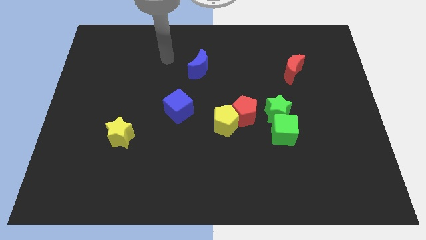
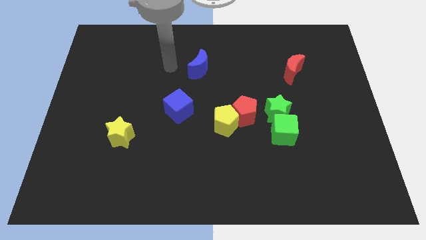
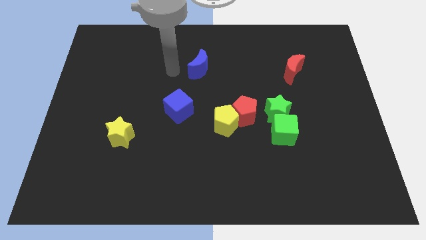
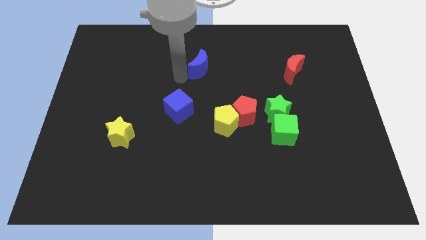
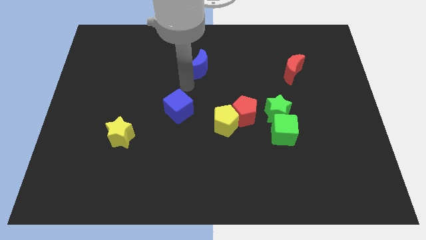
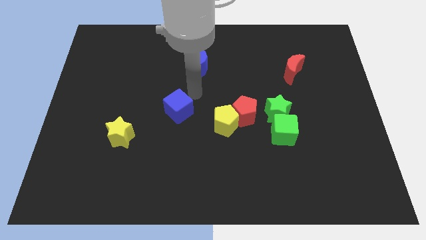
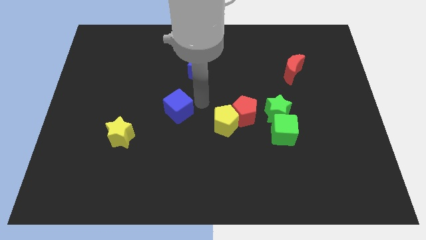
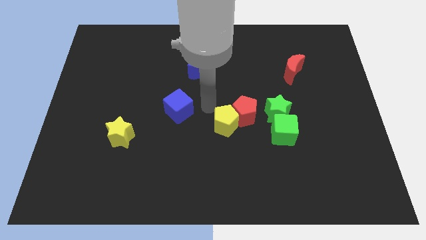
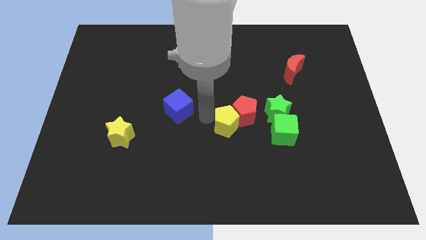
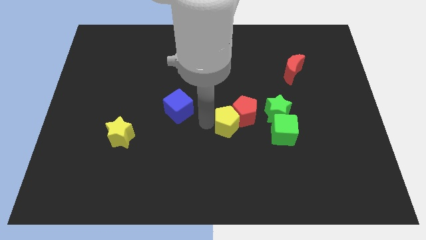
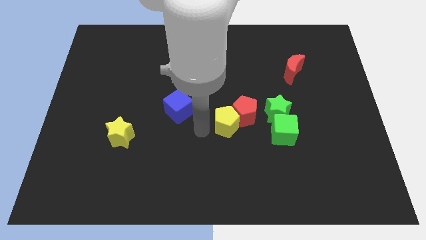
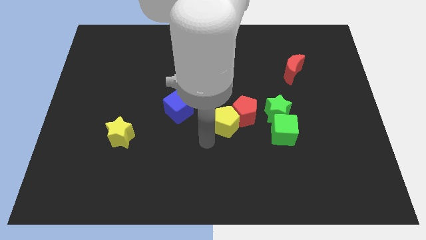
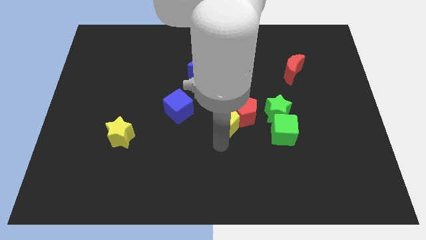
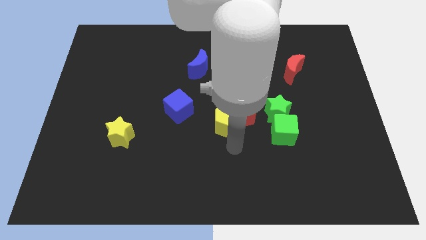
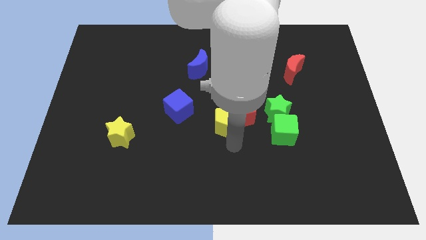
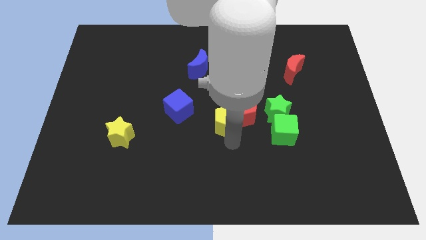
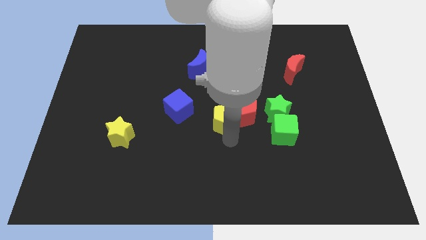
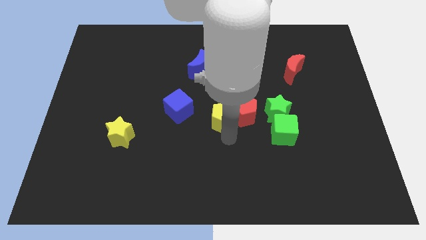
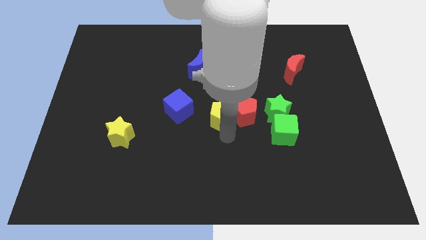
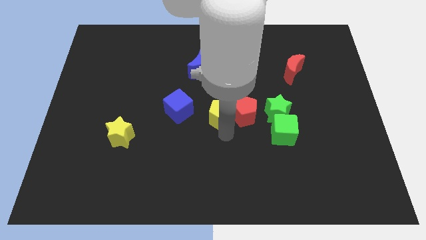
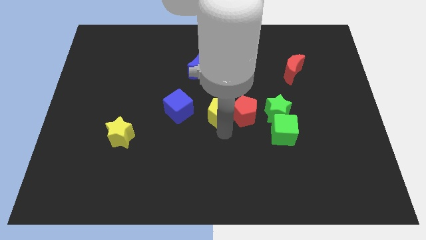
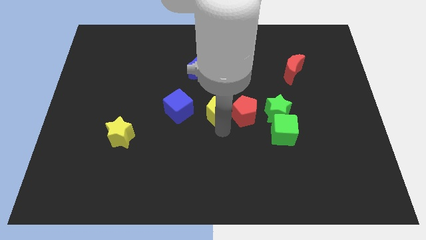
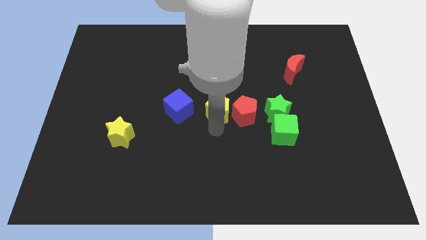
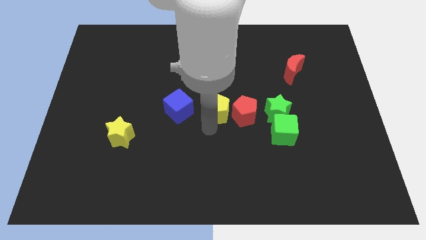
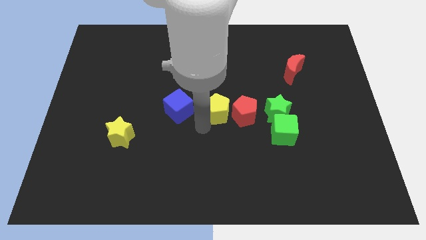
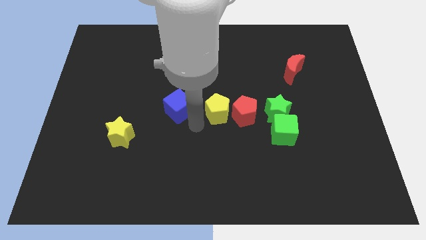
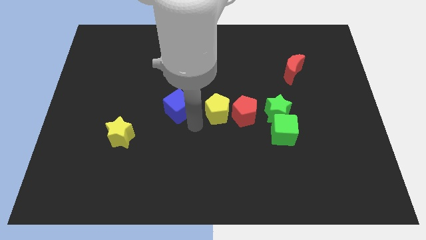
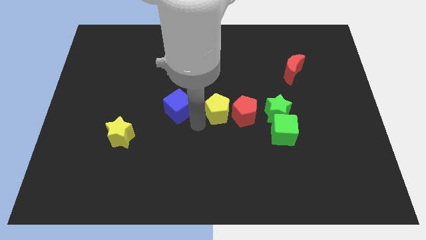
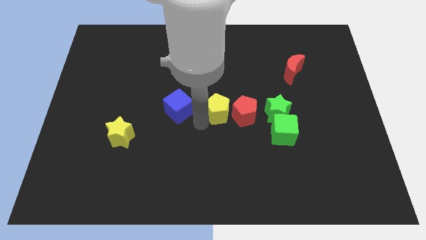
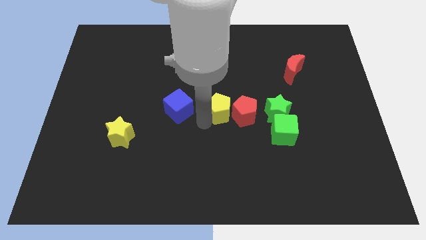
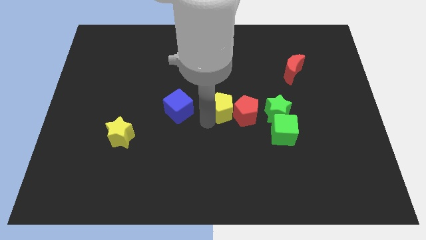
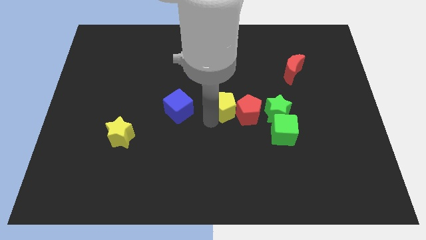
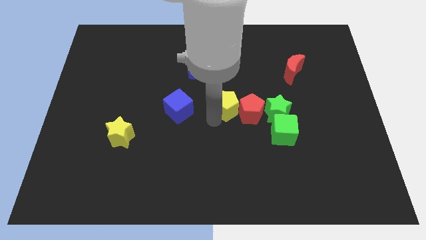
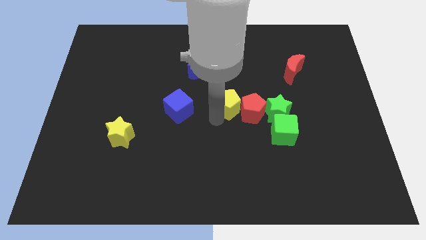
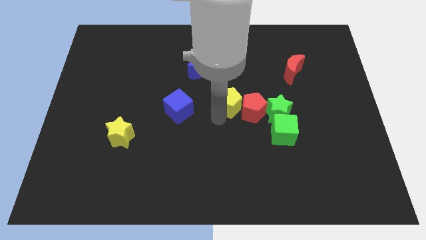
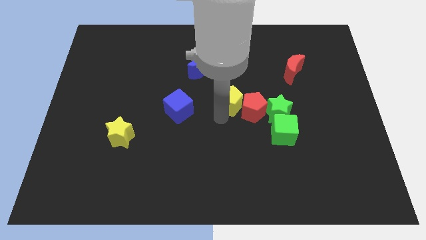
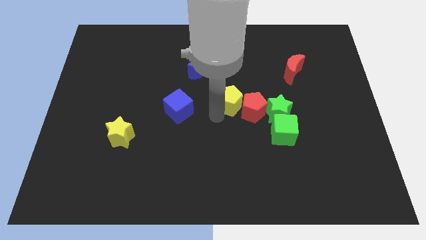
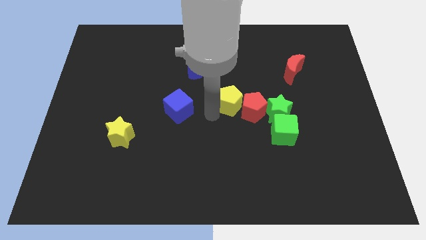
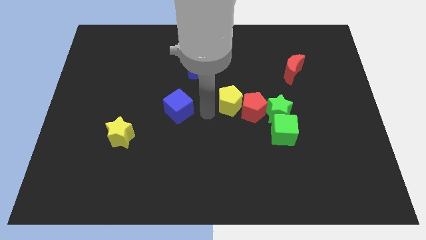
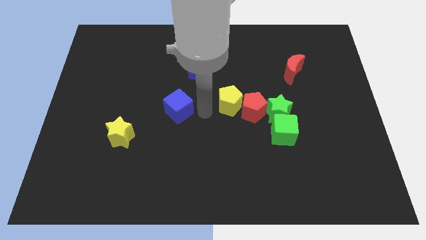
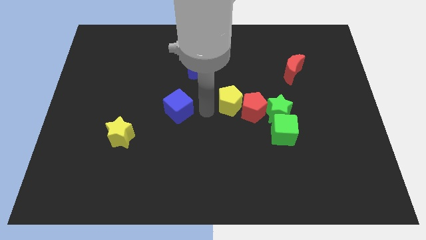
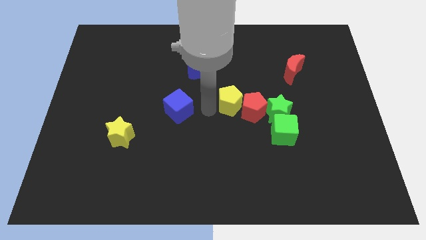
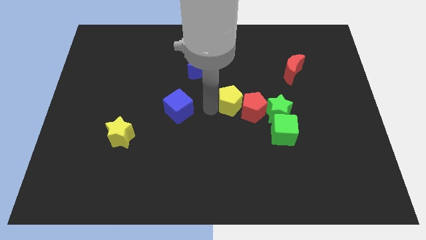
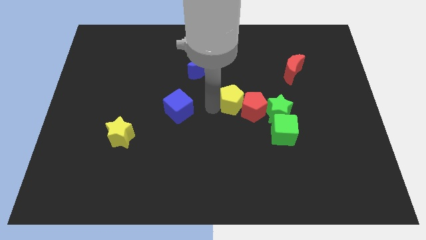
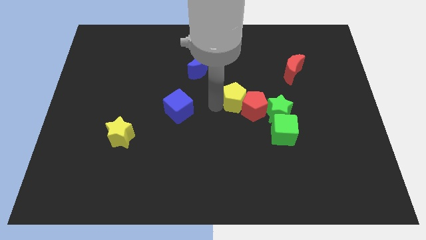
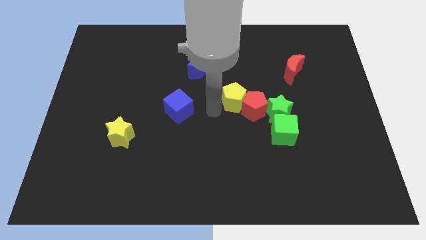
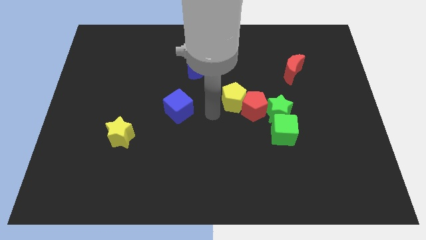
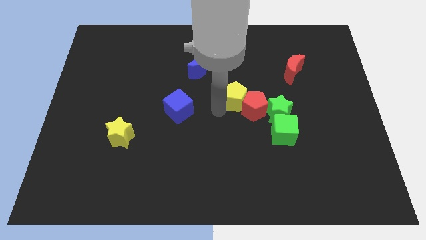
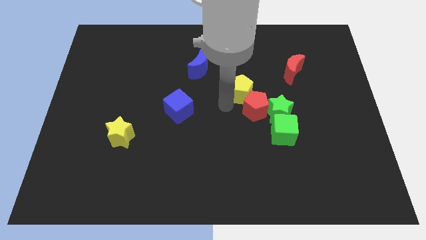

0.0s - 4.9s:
slightly move the yellow pentagon diagonally up and right

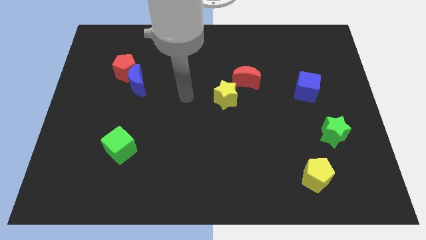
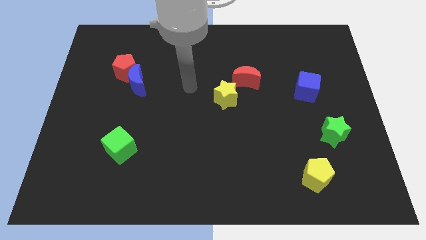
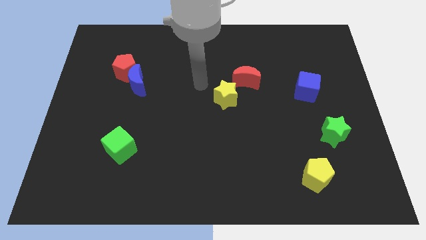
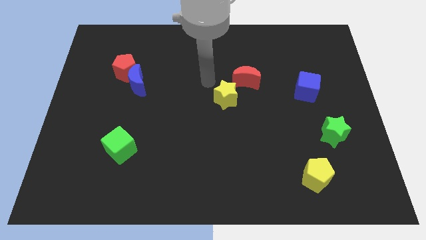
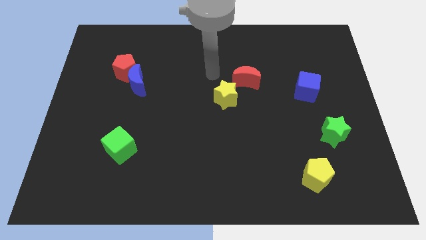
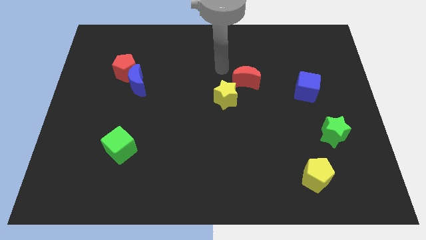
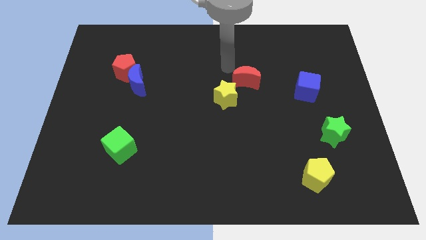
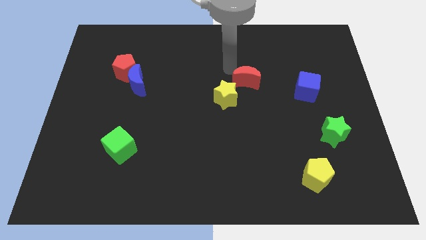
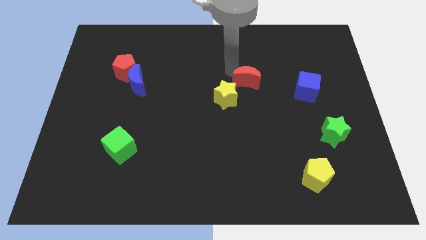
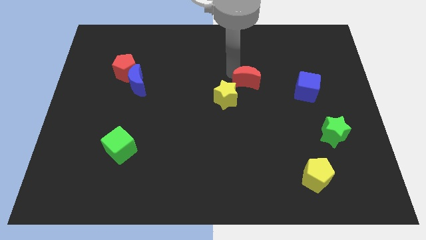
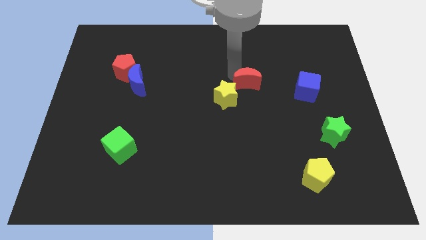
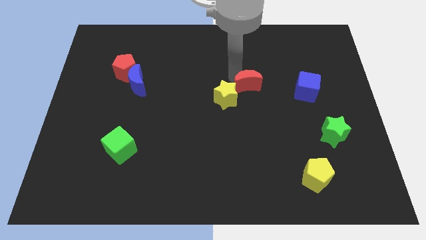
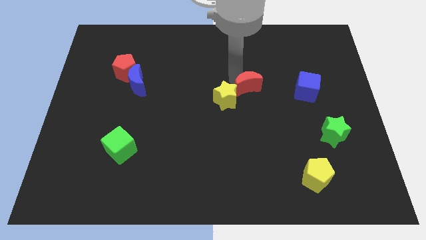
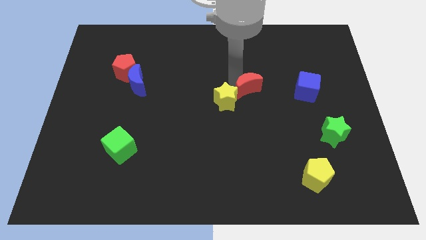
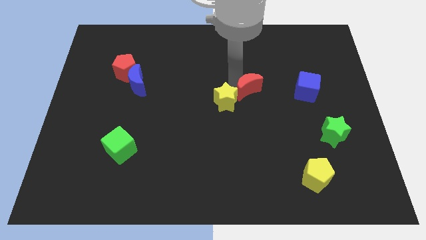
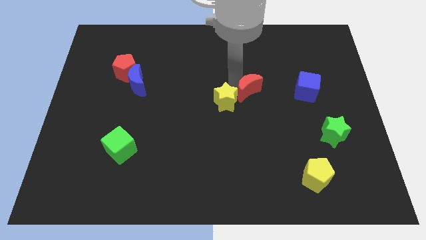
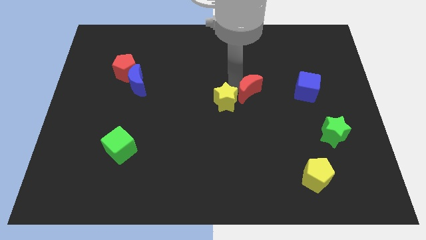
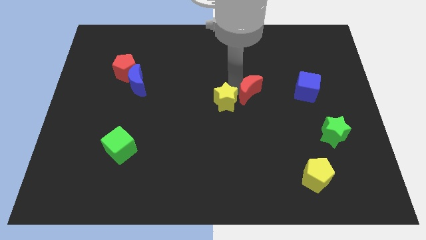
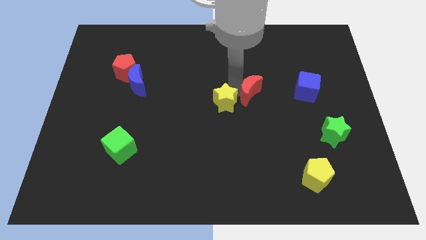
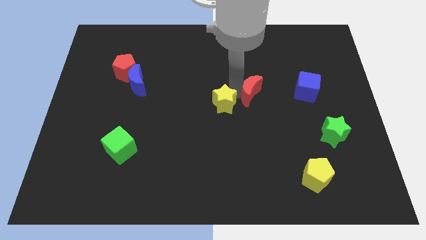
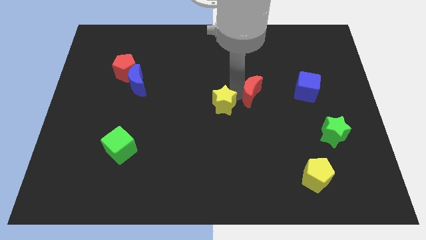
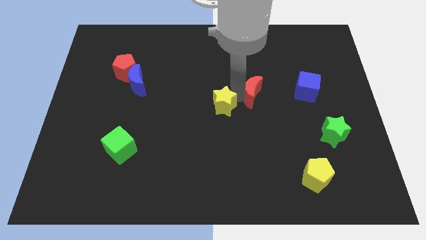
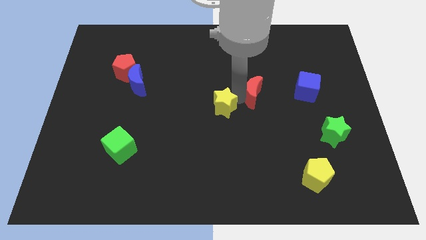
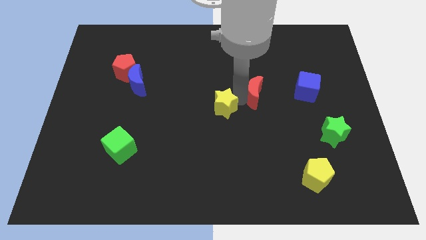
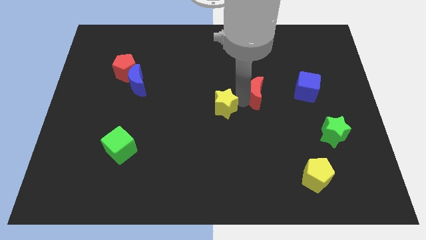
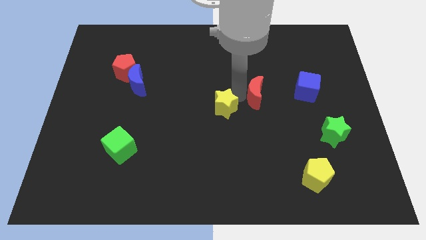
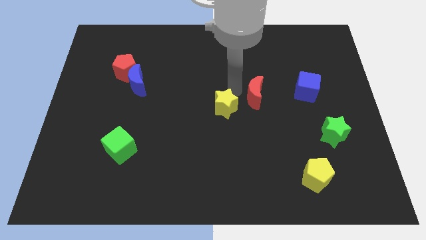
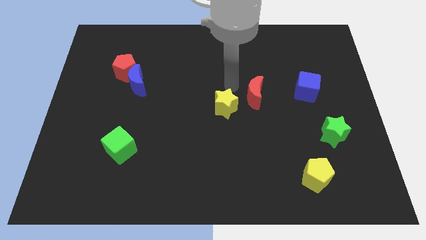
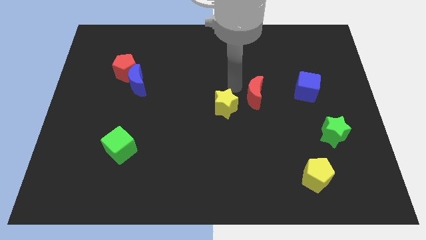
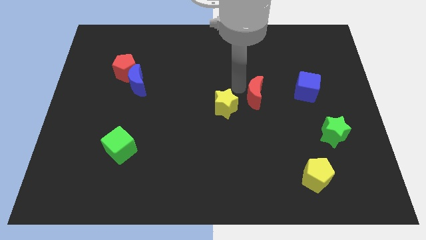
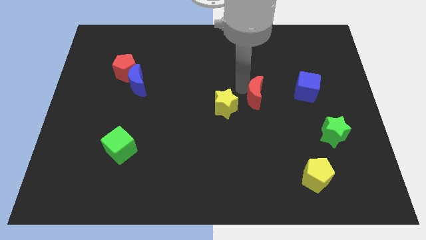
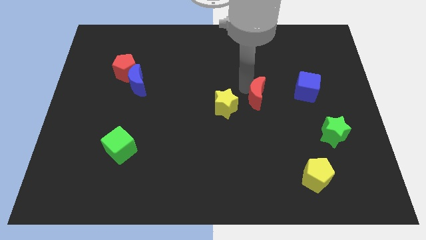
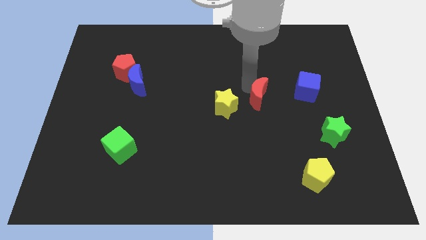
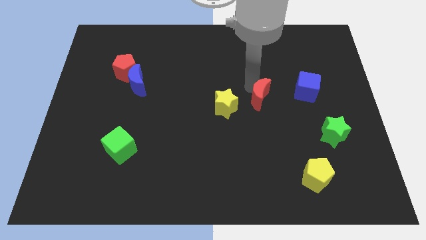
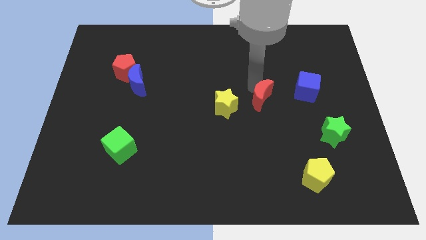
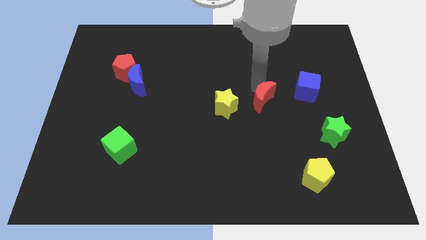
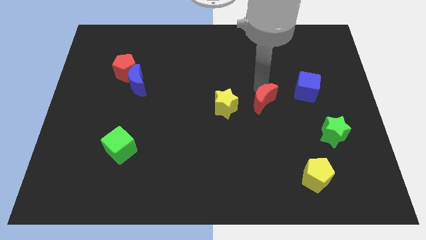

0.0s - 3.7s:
slide the red moon diagonally downwards and right somewhat
